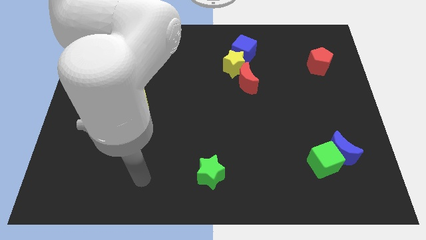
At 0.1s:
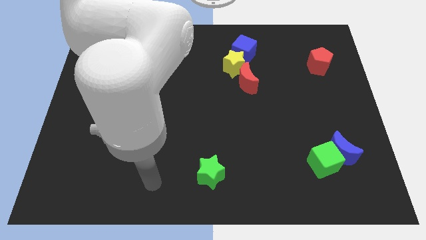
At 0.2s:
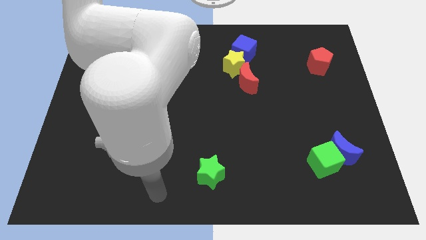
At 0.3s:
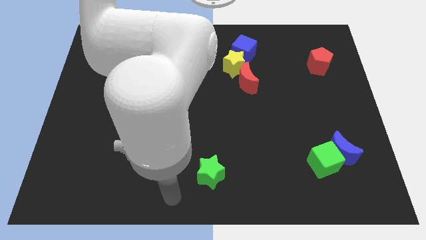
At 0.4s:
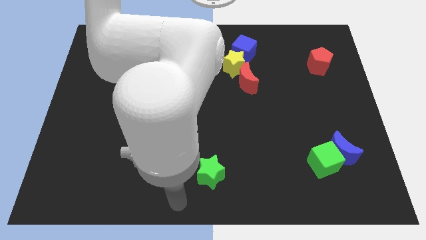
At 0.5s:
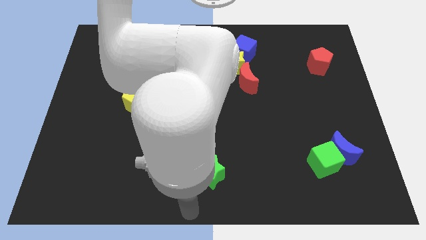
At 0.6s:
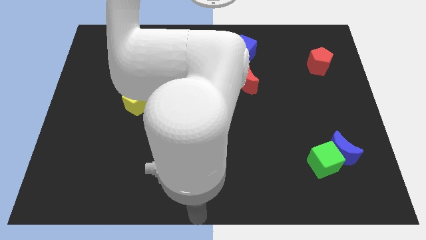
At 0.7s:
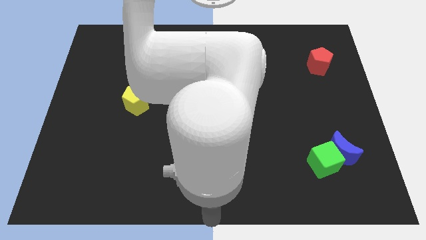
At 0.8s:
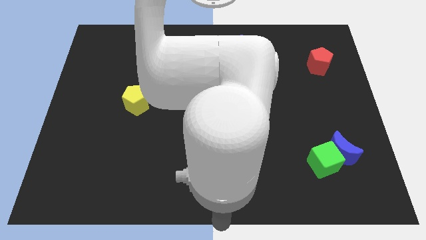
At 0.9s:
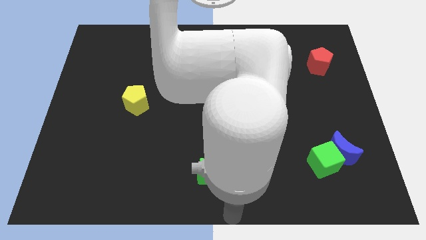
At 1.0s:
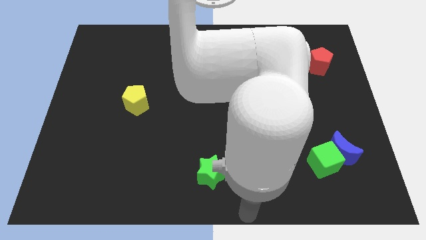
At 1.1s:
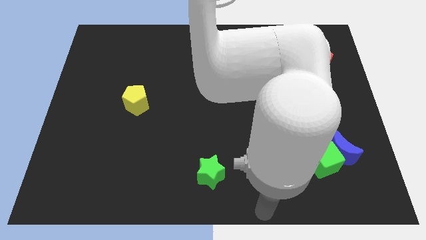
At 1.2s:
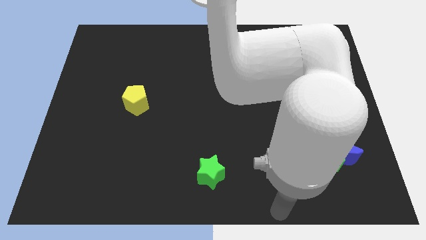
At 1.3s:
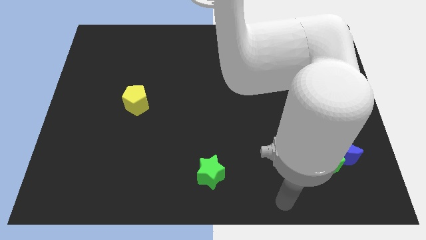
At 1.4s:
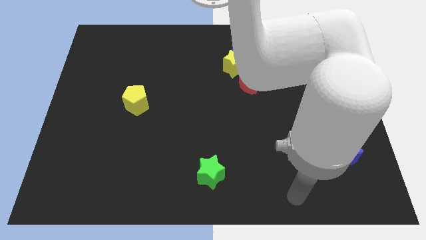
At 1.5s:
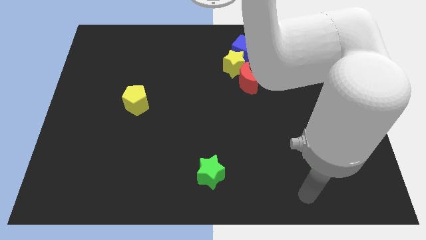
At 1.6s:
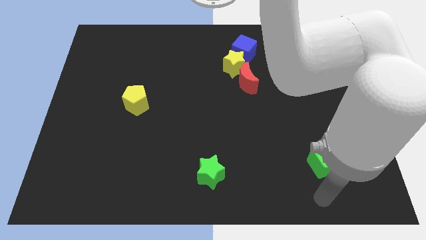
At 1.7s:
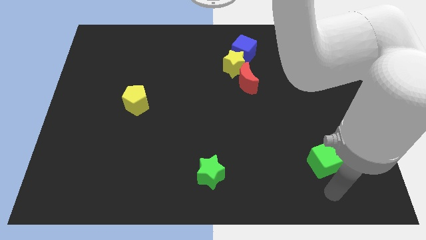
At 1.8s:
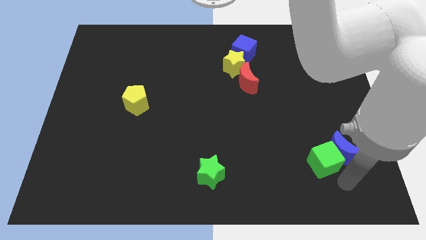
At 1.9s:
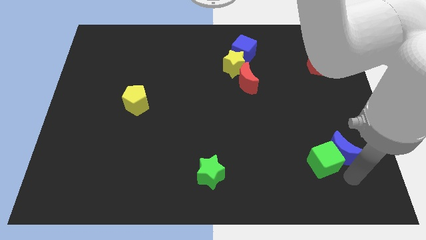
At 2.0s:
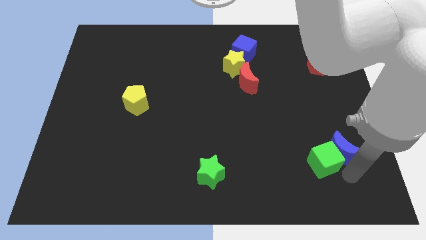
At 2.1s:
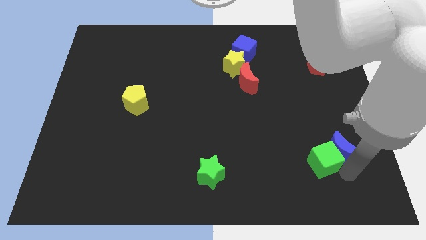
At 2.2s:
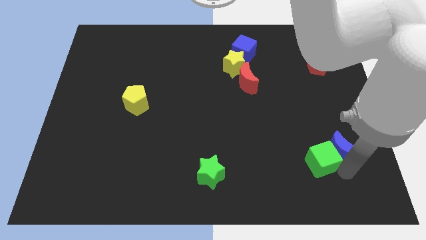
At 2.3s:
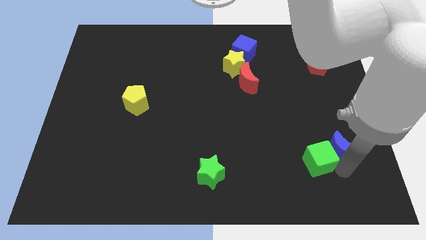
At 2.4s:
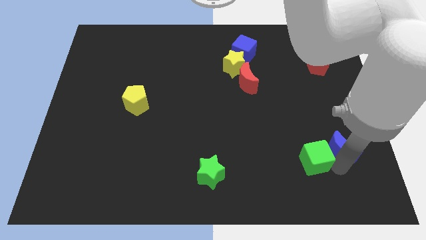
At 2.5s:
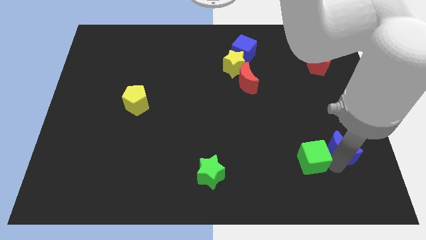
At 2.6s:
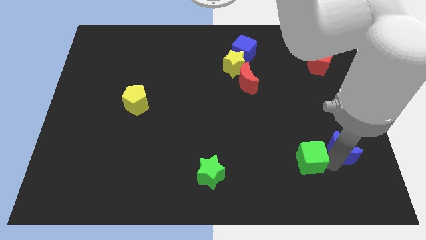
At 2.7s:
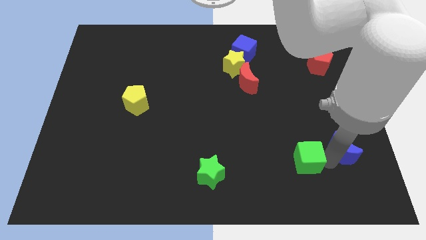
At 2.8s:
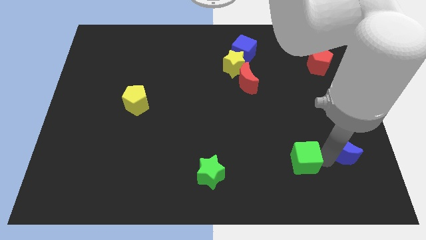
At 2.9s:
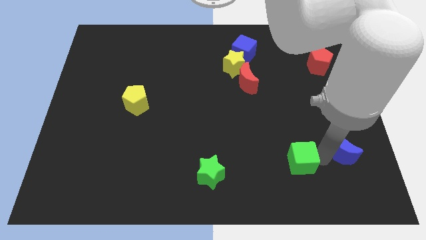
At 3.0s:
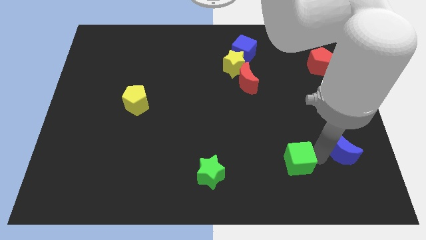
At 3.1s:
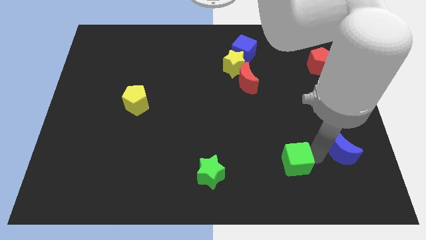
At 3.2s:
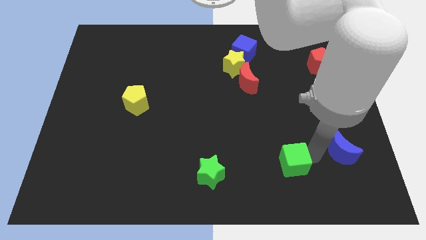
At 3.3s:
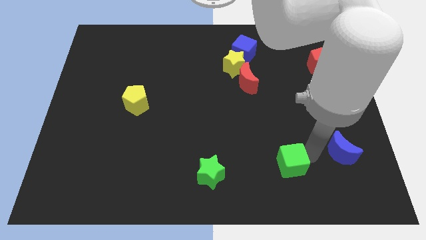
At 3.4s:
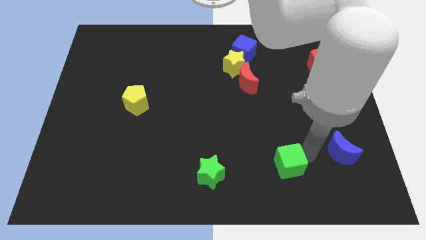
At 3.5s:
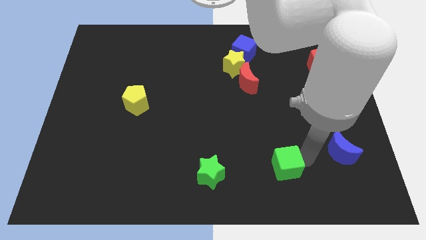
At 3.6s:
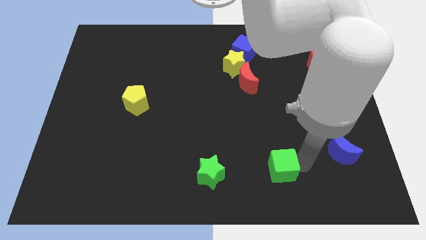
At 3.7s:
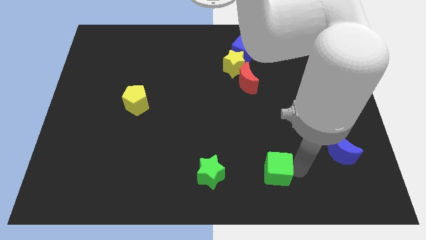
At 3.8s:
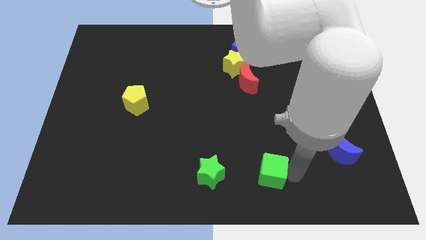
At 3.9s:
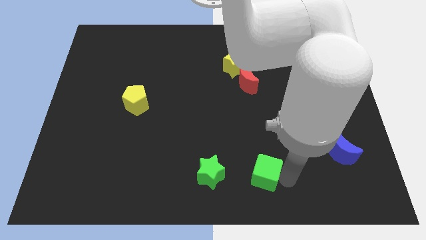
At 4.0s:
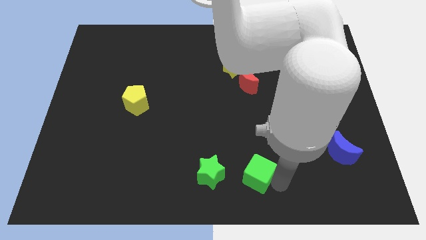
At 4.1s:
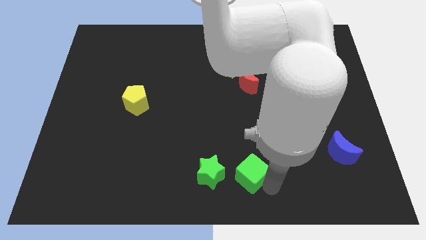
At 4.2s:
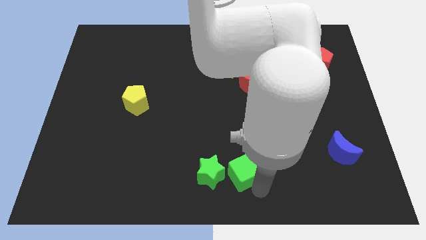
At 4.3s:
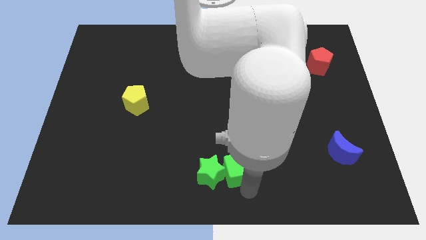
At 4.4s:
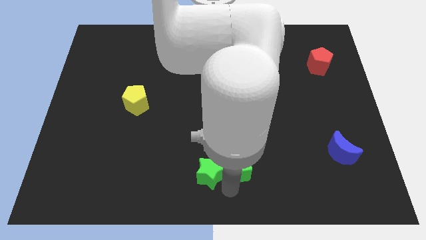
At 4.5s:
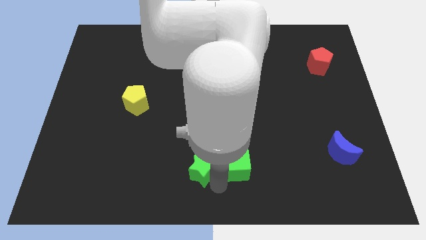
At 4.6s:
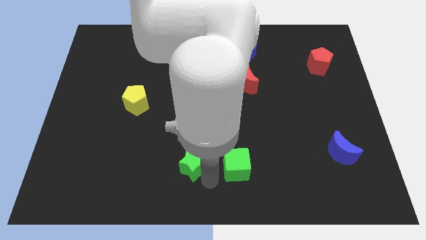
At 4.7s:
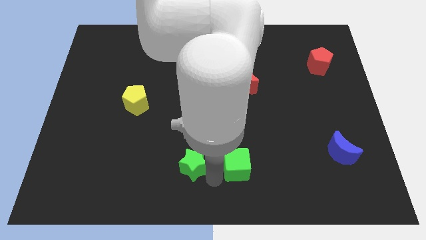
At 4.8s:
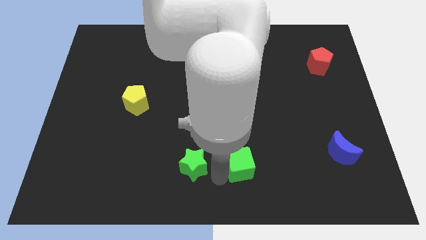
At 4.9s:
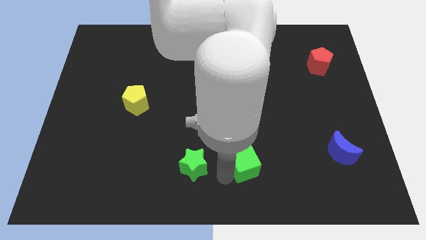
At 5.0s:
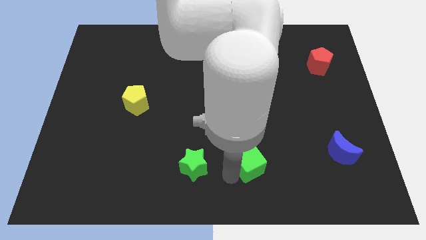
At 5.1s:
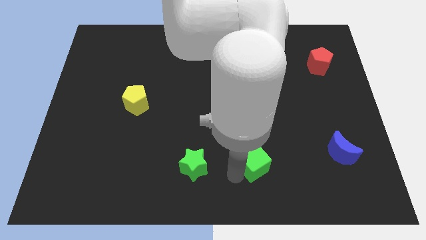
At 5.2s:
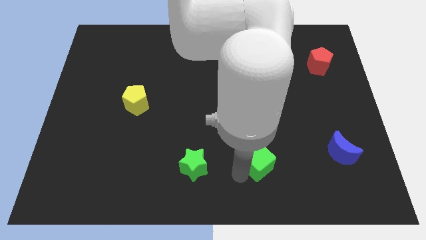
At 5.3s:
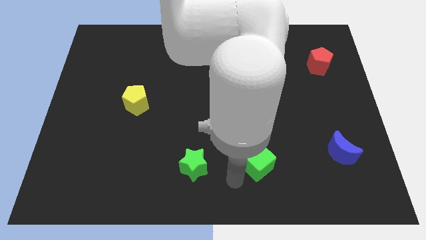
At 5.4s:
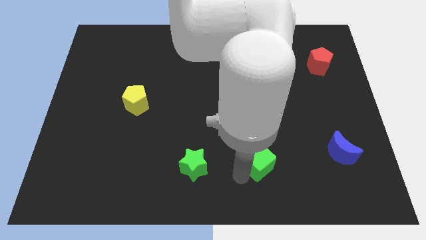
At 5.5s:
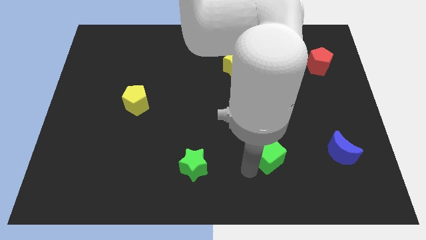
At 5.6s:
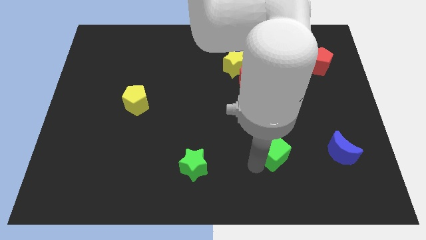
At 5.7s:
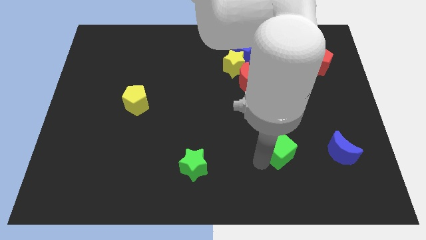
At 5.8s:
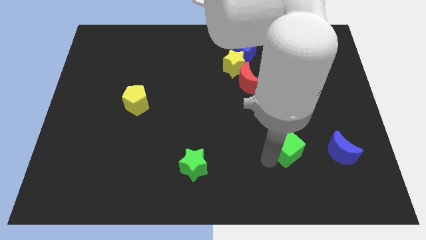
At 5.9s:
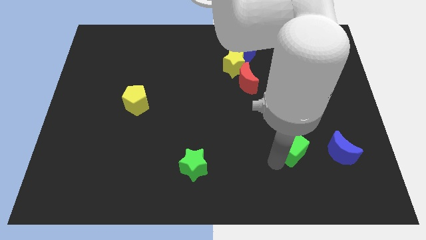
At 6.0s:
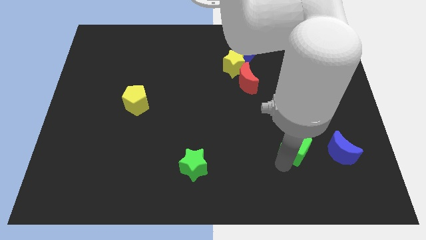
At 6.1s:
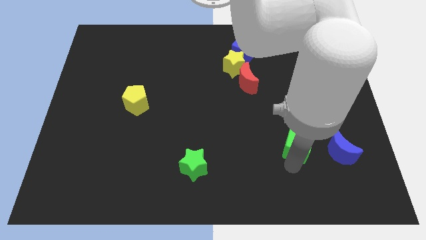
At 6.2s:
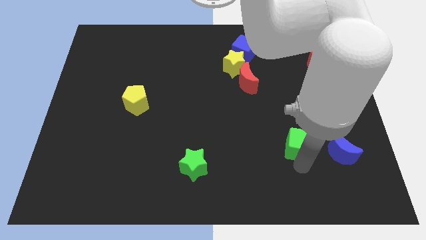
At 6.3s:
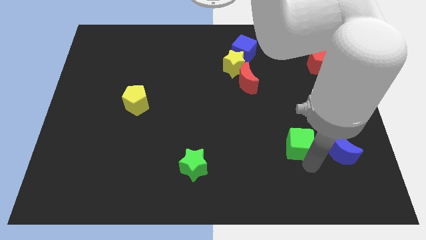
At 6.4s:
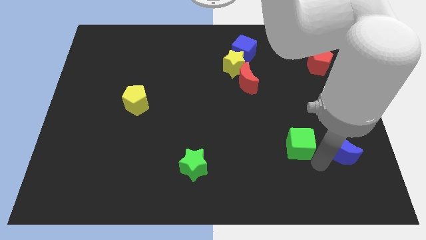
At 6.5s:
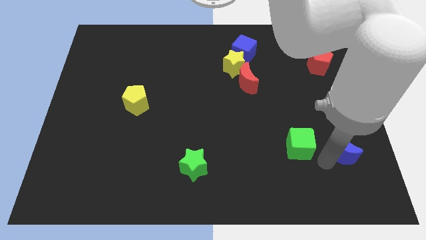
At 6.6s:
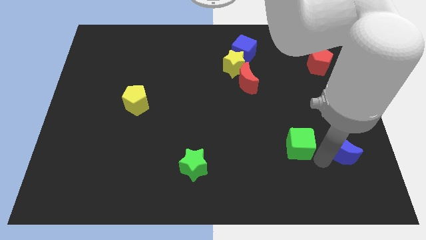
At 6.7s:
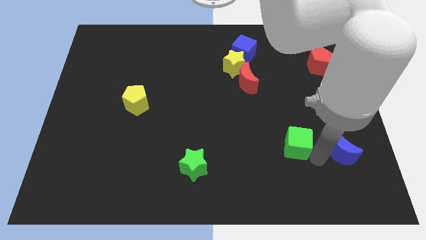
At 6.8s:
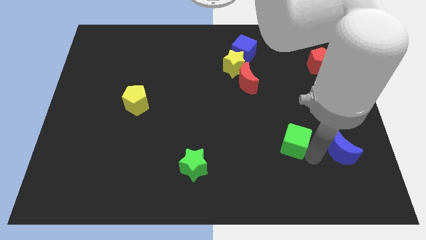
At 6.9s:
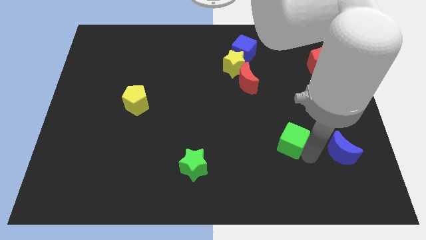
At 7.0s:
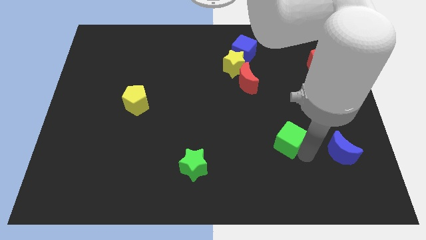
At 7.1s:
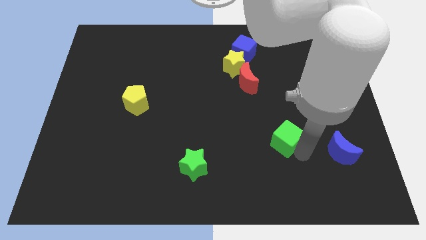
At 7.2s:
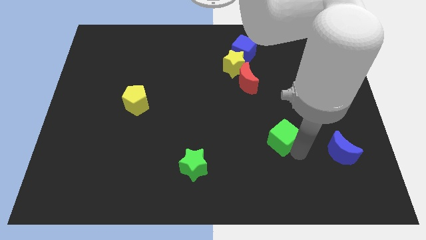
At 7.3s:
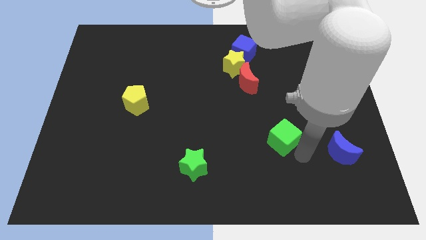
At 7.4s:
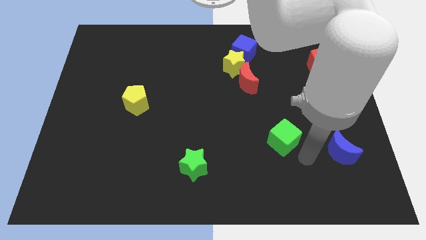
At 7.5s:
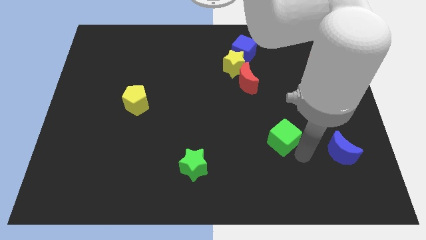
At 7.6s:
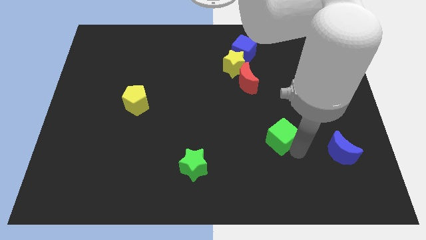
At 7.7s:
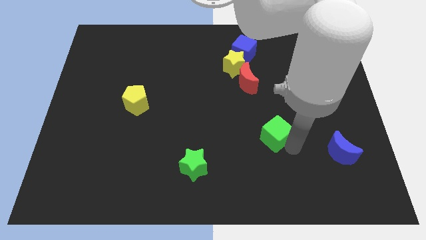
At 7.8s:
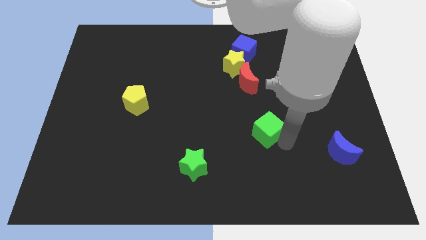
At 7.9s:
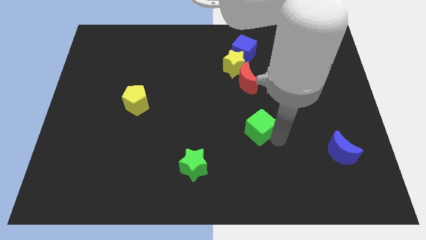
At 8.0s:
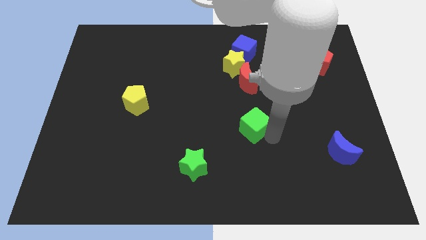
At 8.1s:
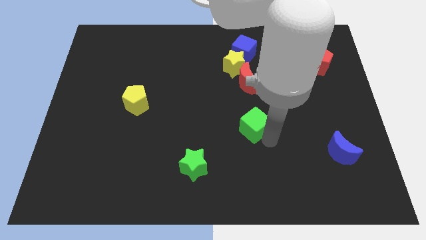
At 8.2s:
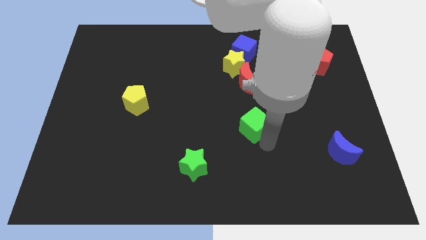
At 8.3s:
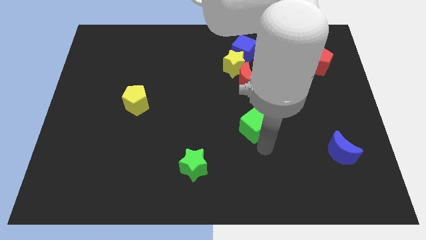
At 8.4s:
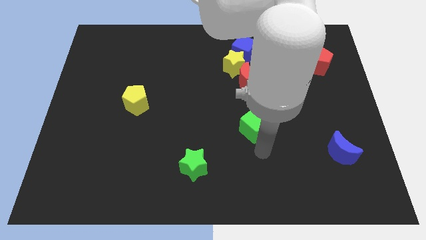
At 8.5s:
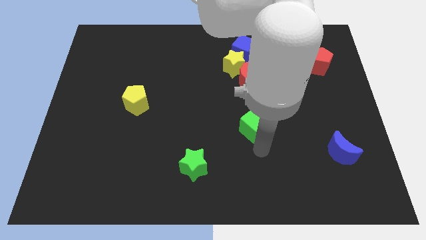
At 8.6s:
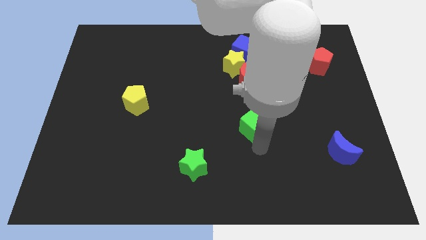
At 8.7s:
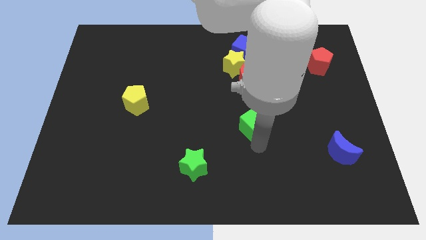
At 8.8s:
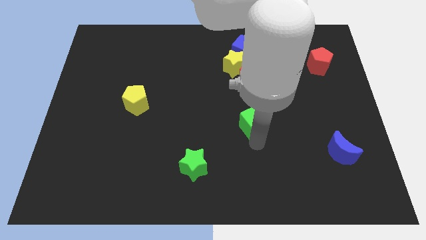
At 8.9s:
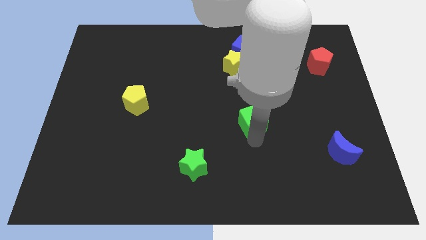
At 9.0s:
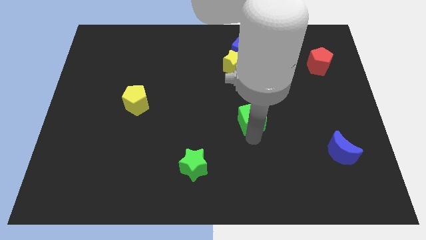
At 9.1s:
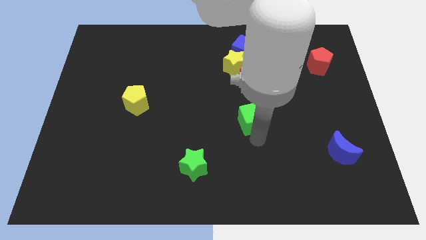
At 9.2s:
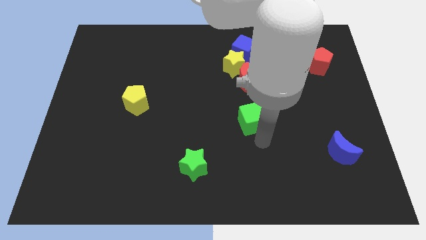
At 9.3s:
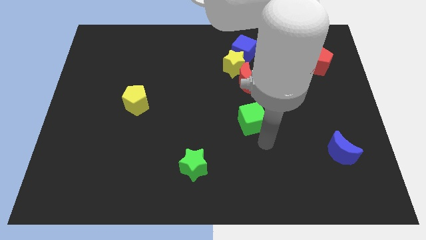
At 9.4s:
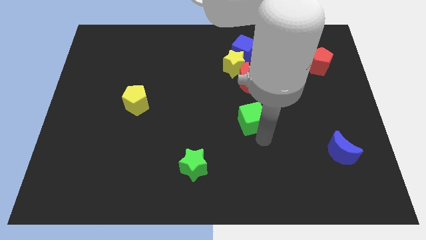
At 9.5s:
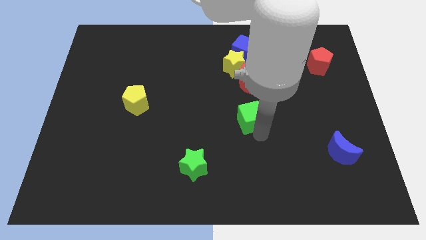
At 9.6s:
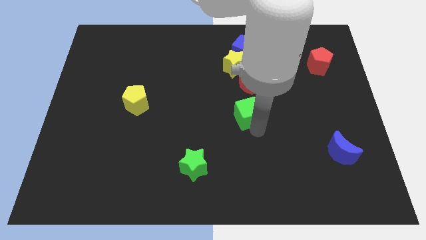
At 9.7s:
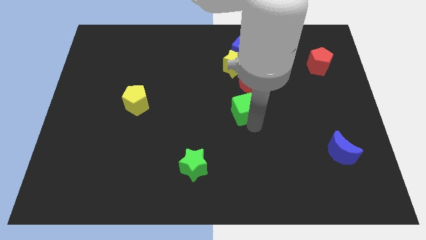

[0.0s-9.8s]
push the green cube up and left
